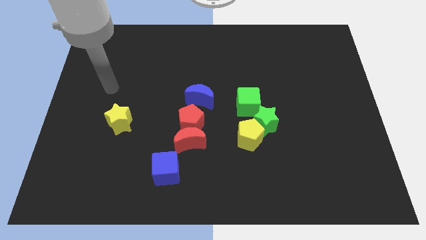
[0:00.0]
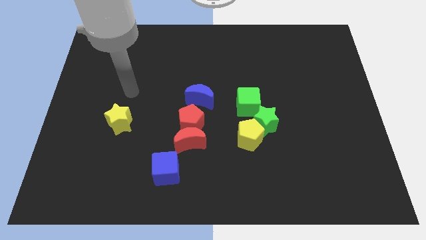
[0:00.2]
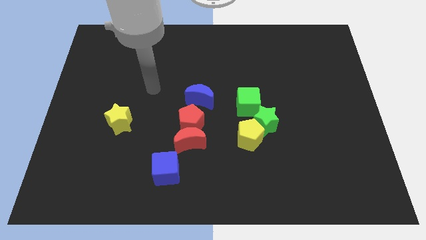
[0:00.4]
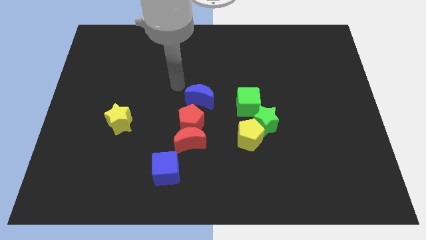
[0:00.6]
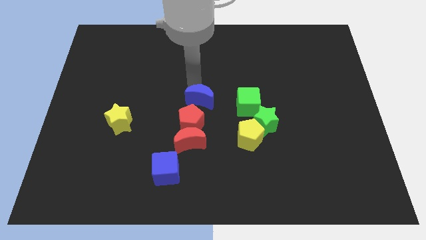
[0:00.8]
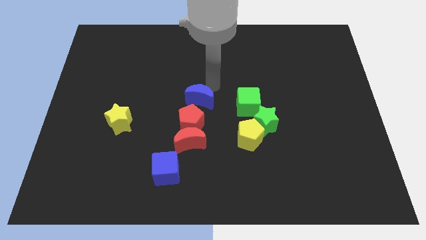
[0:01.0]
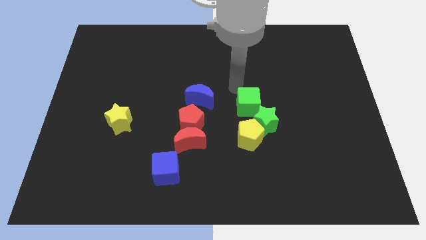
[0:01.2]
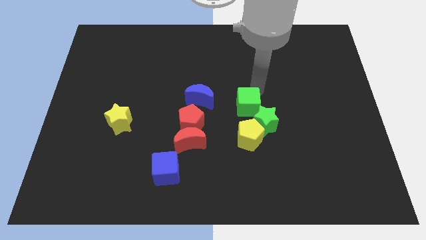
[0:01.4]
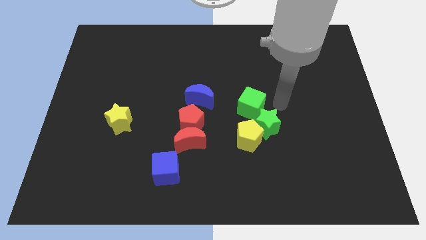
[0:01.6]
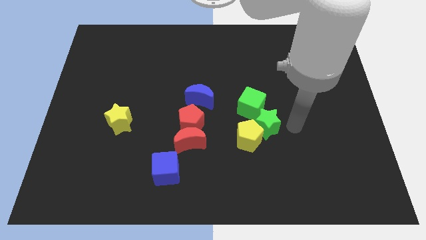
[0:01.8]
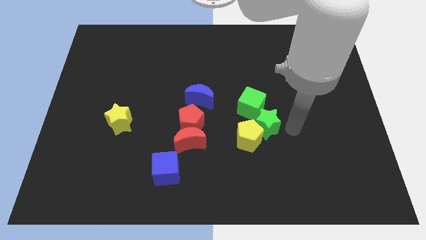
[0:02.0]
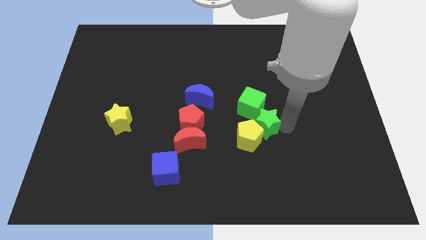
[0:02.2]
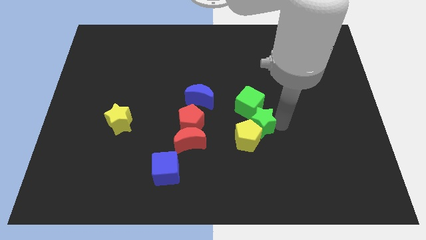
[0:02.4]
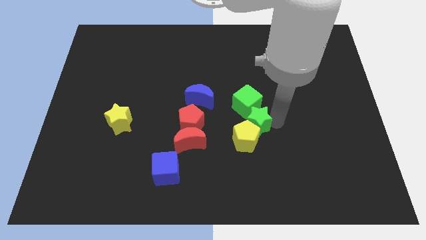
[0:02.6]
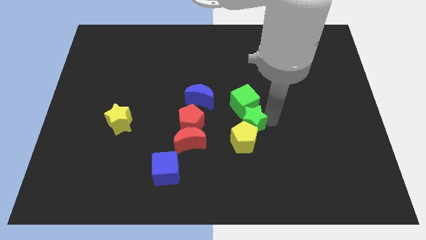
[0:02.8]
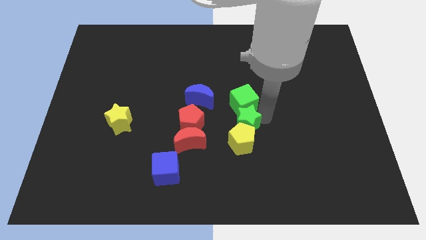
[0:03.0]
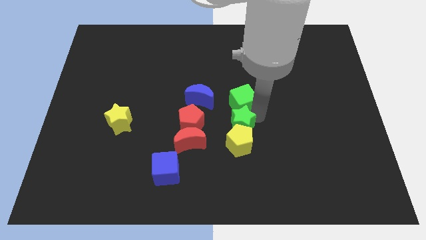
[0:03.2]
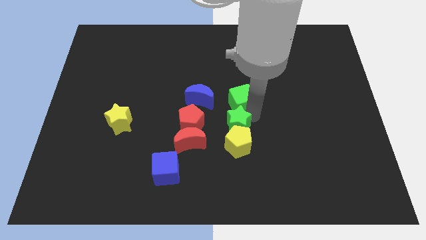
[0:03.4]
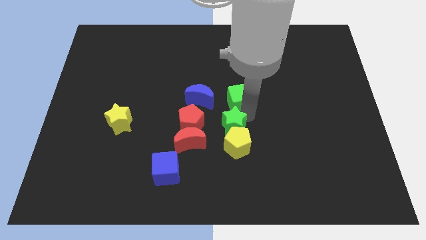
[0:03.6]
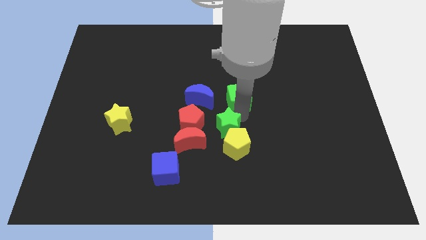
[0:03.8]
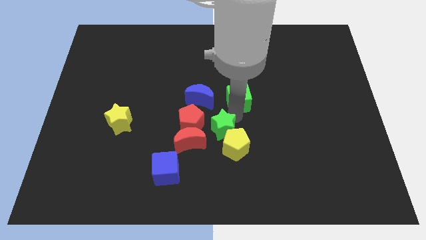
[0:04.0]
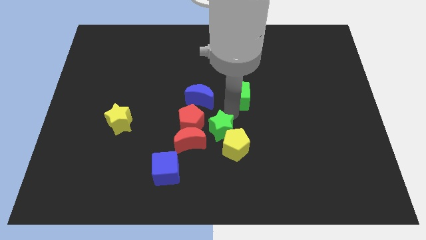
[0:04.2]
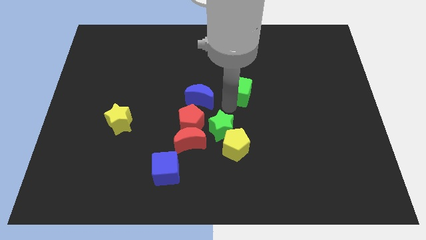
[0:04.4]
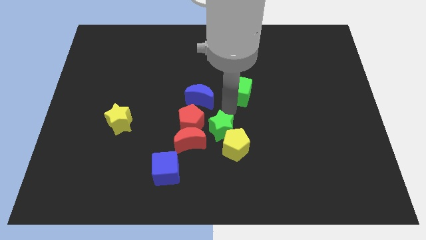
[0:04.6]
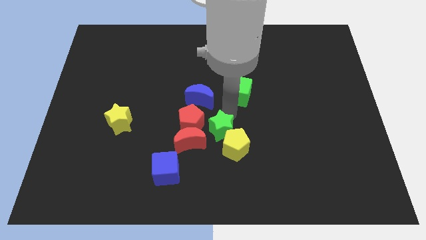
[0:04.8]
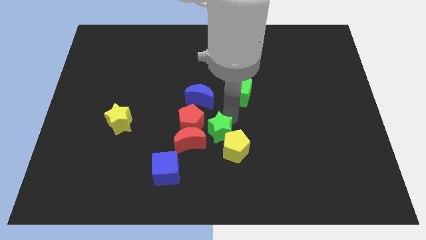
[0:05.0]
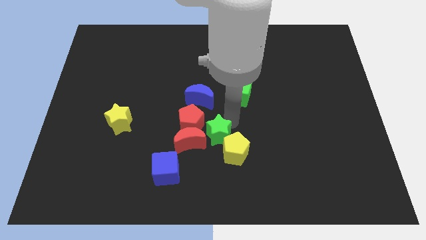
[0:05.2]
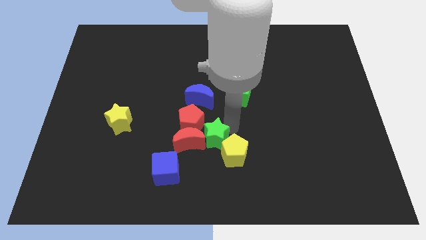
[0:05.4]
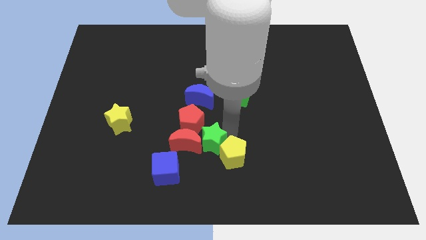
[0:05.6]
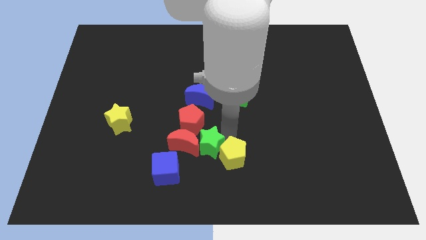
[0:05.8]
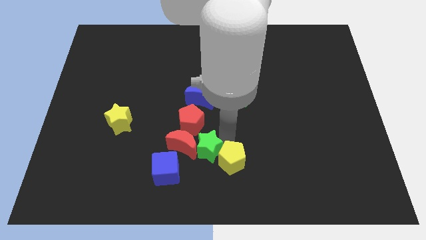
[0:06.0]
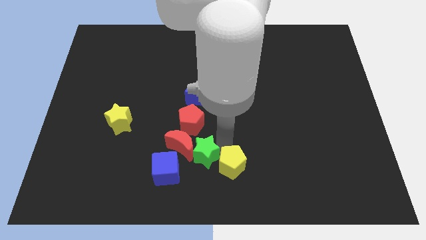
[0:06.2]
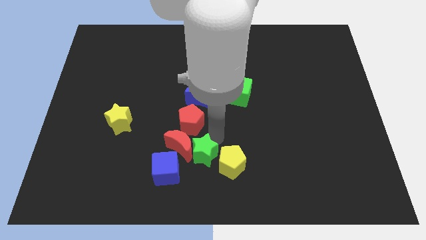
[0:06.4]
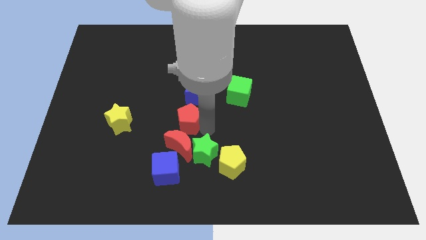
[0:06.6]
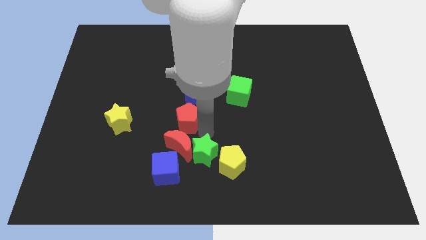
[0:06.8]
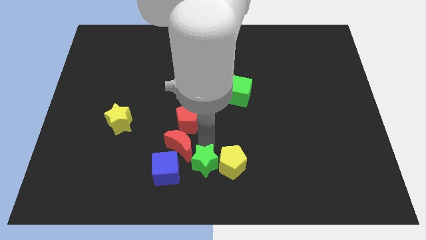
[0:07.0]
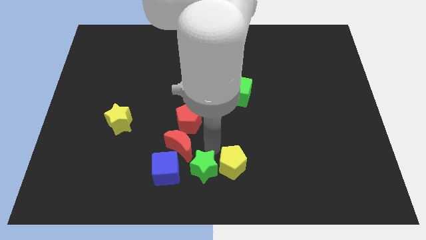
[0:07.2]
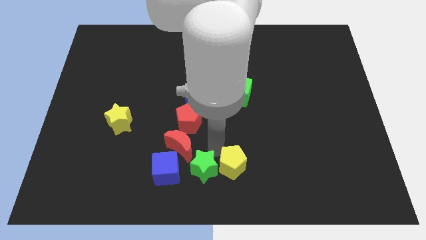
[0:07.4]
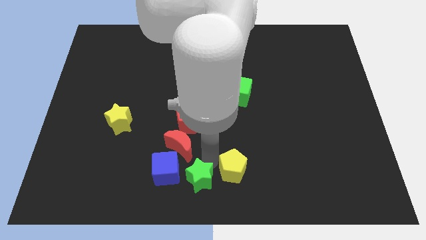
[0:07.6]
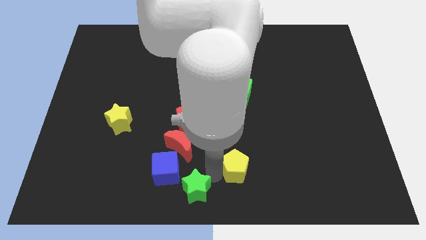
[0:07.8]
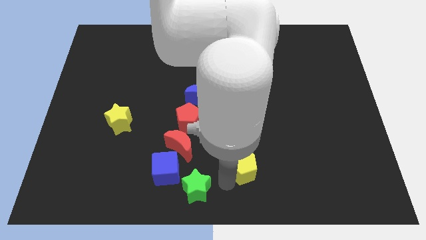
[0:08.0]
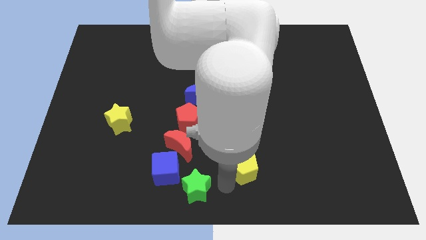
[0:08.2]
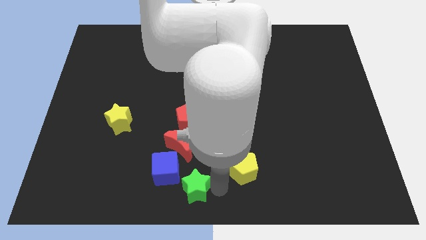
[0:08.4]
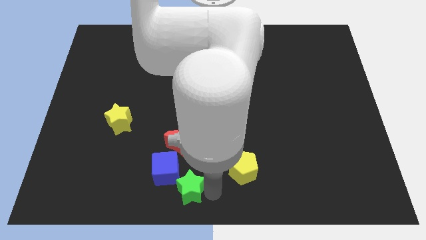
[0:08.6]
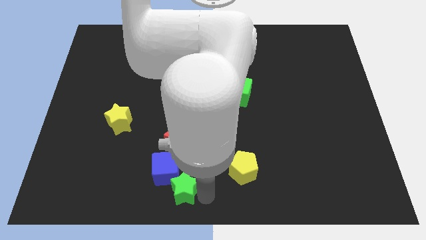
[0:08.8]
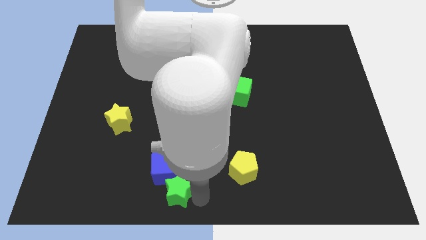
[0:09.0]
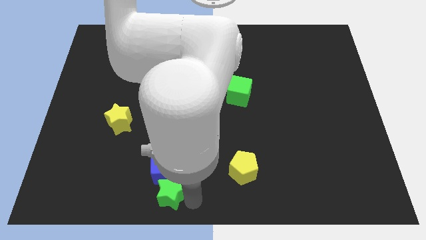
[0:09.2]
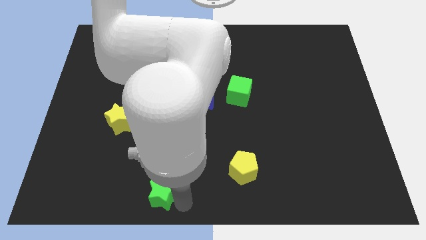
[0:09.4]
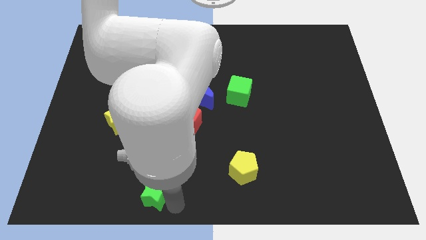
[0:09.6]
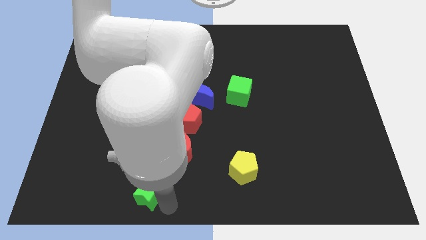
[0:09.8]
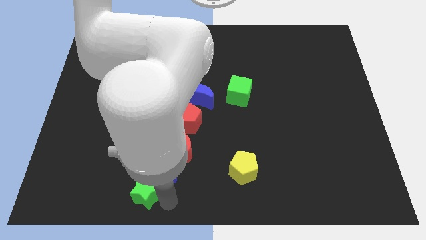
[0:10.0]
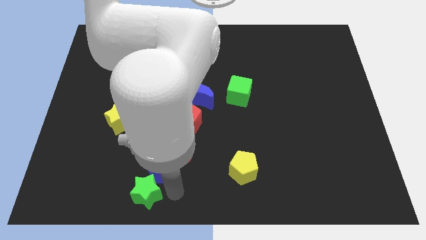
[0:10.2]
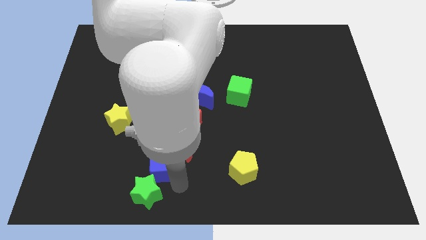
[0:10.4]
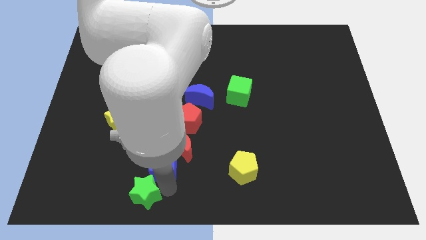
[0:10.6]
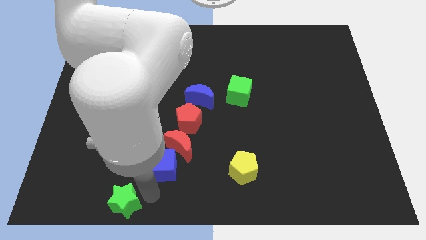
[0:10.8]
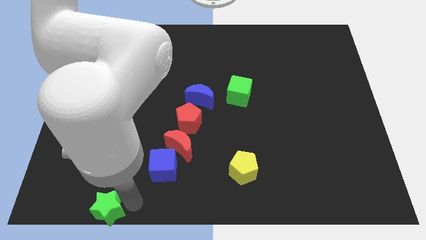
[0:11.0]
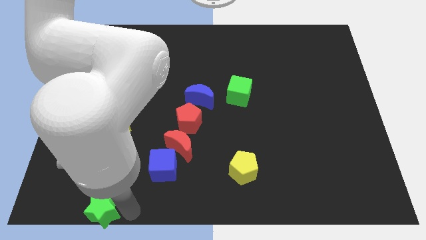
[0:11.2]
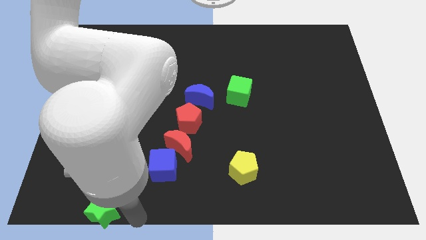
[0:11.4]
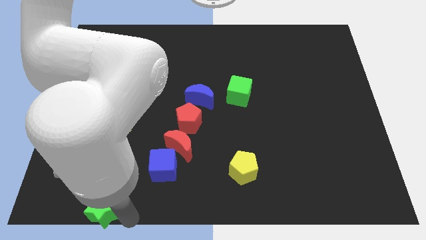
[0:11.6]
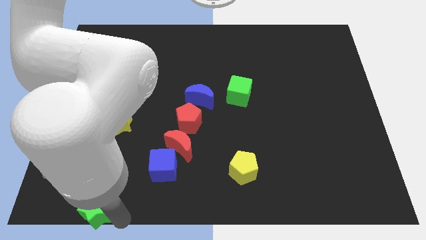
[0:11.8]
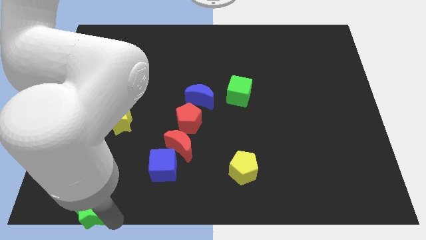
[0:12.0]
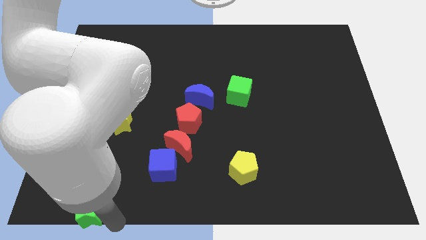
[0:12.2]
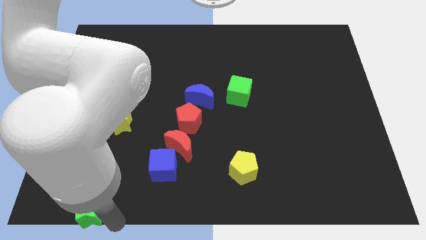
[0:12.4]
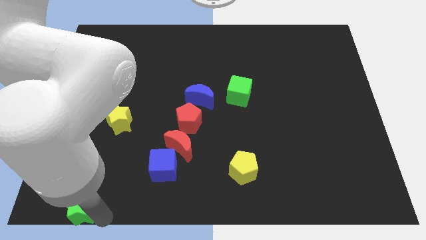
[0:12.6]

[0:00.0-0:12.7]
put the green star to the bottom left corner

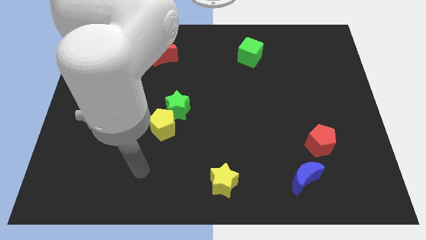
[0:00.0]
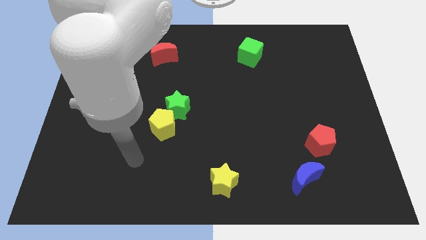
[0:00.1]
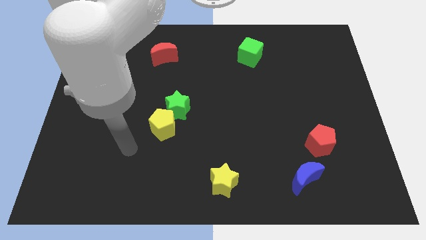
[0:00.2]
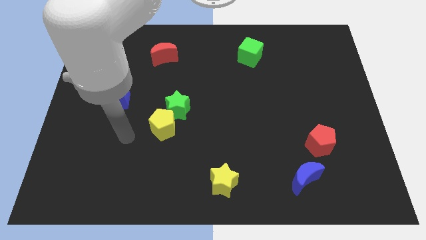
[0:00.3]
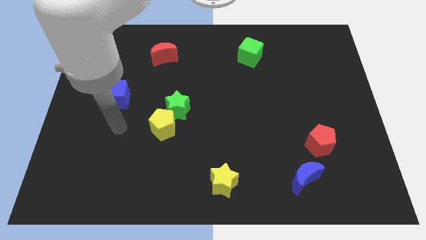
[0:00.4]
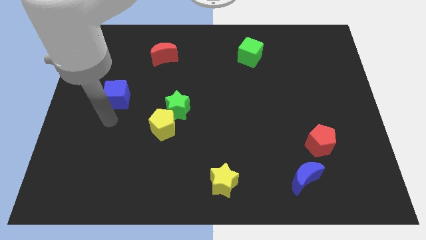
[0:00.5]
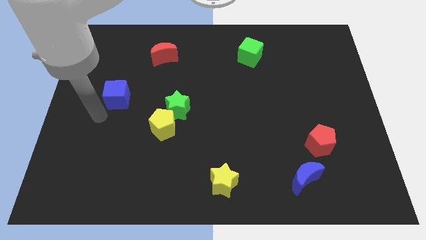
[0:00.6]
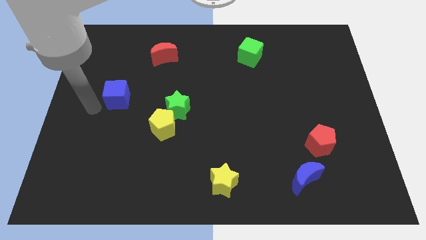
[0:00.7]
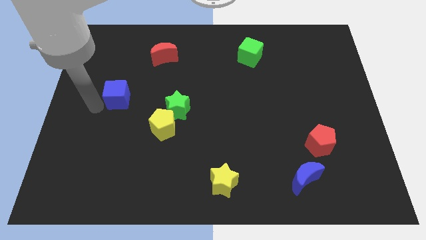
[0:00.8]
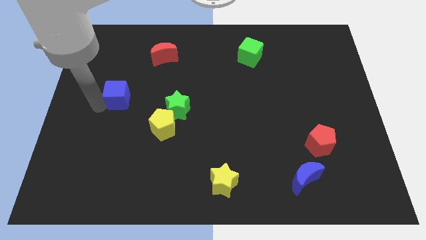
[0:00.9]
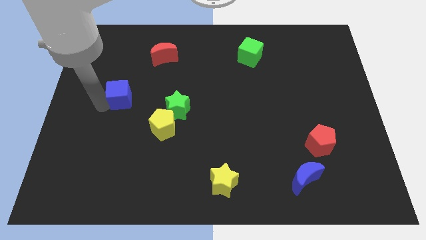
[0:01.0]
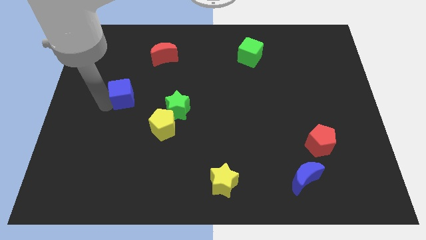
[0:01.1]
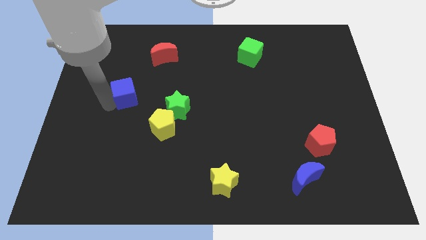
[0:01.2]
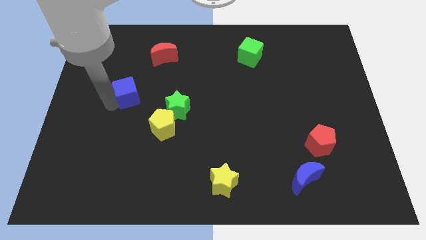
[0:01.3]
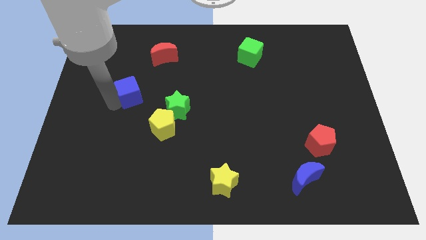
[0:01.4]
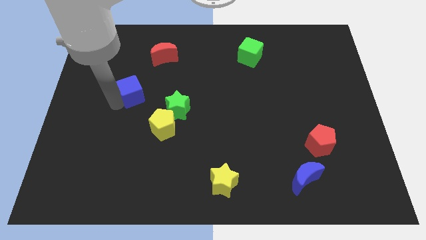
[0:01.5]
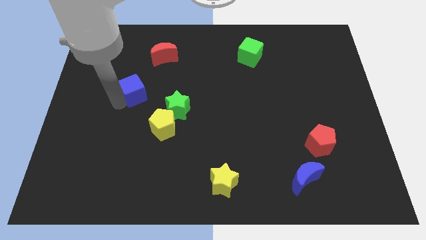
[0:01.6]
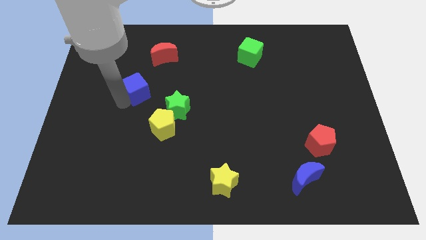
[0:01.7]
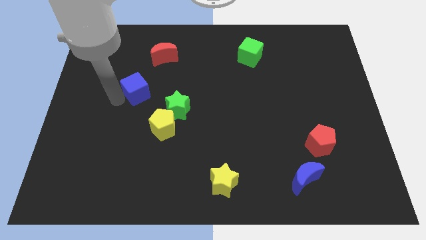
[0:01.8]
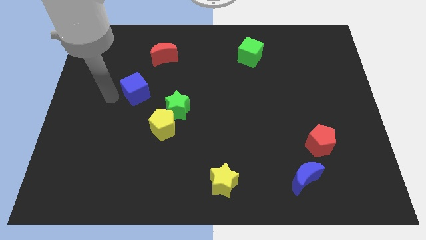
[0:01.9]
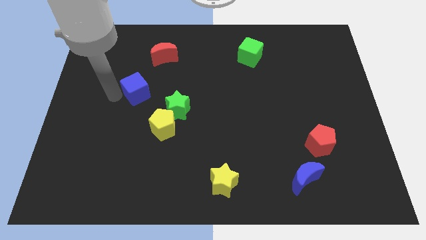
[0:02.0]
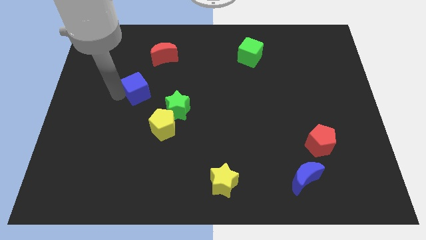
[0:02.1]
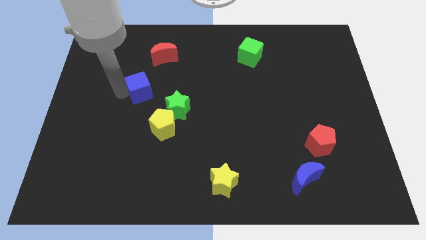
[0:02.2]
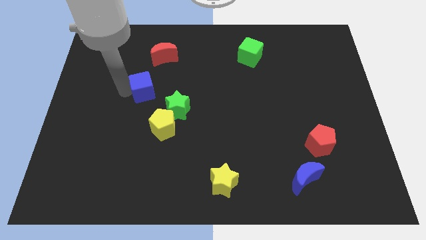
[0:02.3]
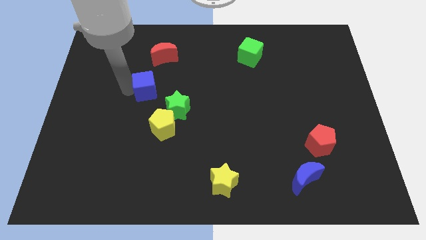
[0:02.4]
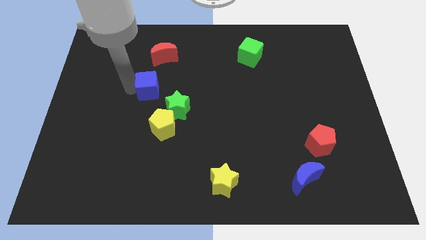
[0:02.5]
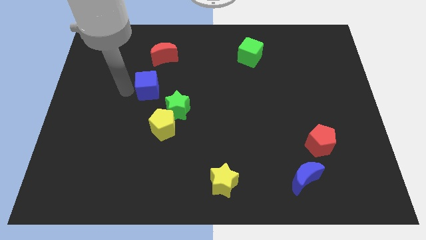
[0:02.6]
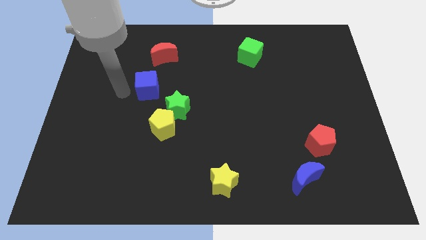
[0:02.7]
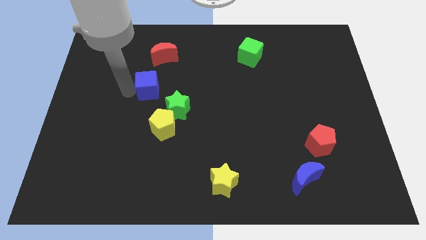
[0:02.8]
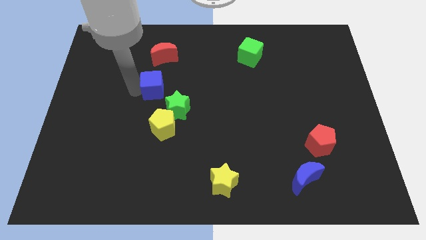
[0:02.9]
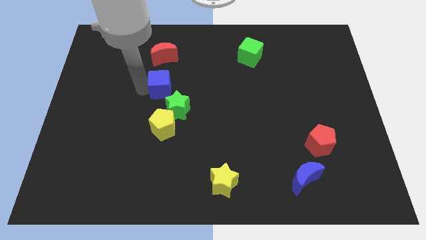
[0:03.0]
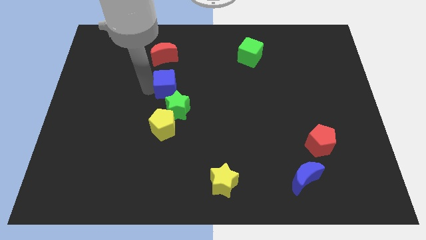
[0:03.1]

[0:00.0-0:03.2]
put the blue cube to the middle of the board
